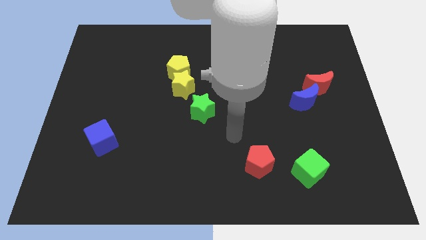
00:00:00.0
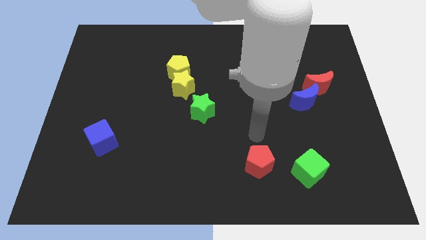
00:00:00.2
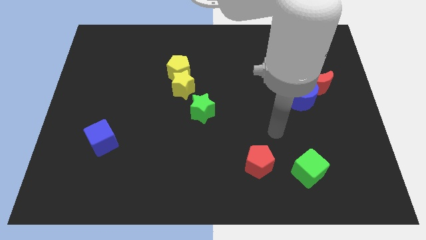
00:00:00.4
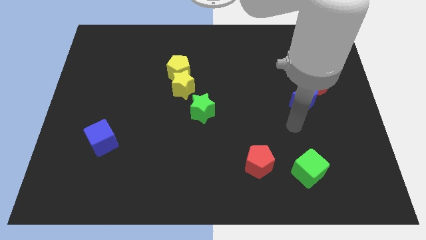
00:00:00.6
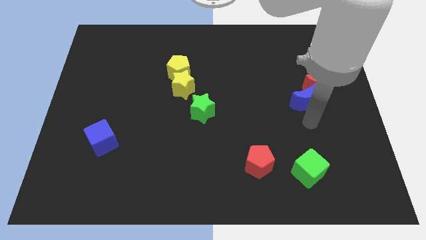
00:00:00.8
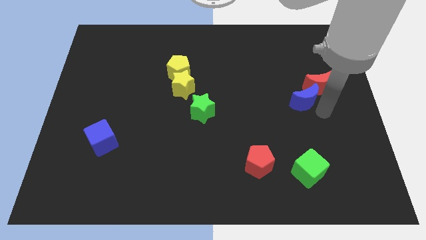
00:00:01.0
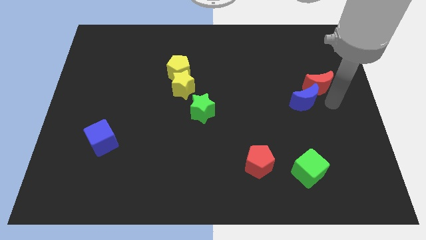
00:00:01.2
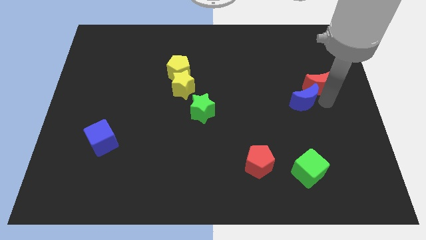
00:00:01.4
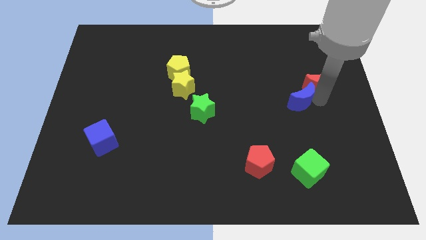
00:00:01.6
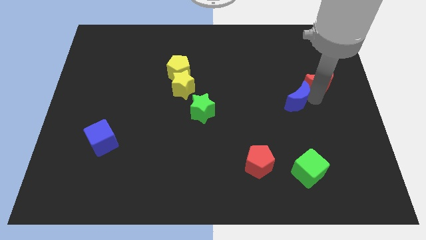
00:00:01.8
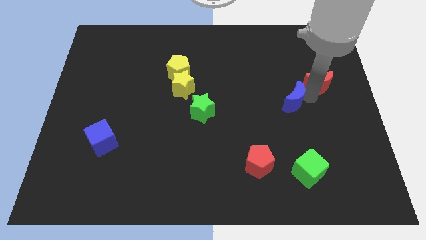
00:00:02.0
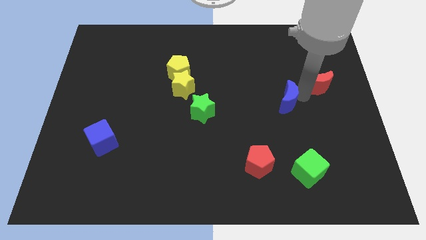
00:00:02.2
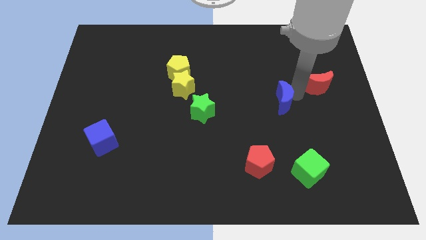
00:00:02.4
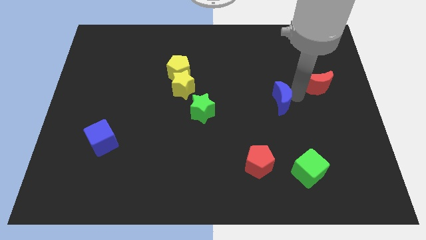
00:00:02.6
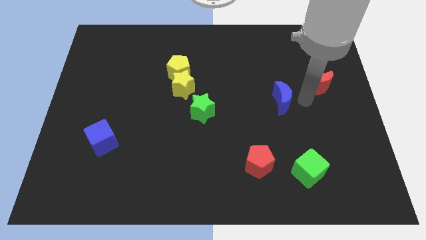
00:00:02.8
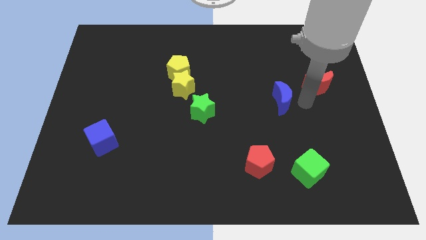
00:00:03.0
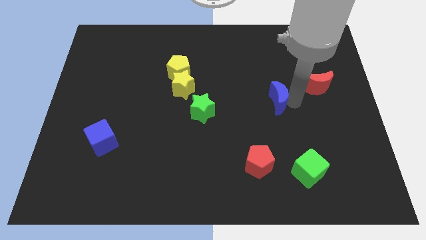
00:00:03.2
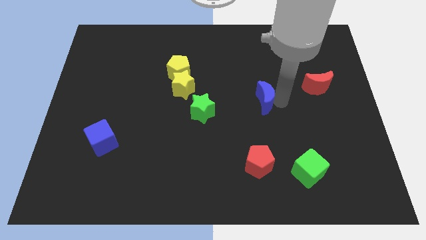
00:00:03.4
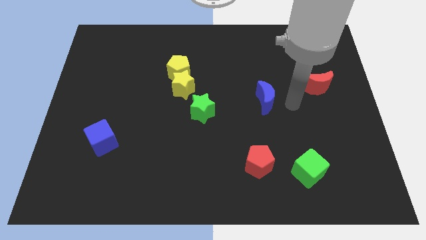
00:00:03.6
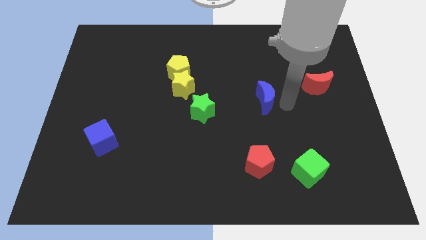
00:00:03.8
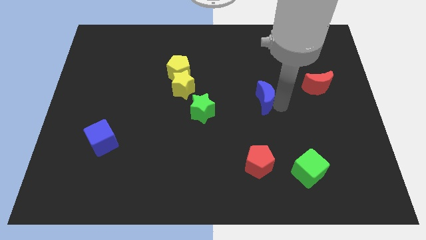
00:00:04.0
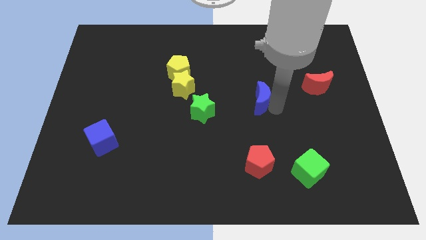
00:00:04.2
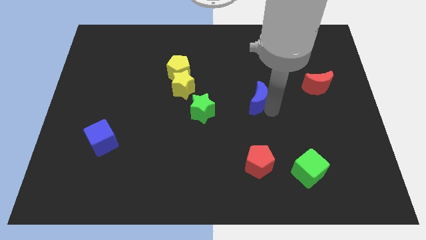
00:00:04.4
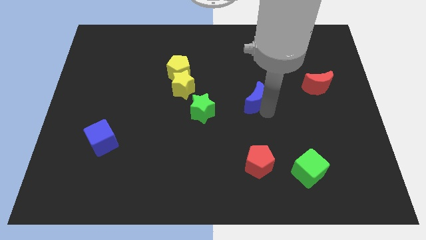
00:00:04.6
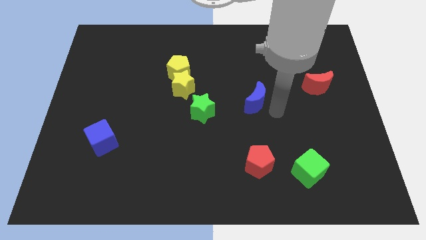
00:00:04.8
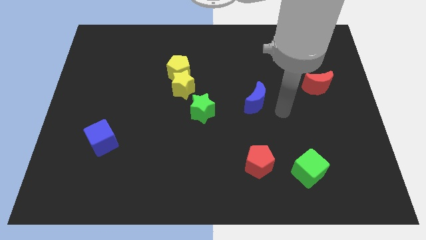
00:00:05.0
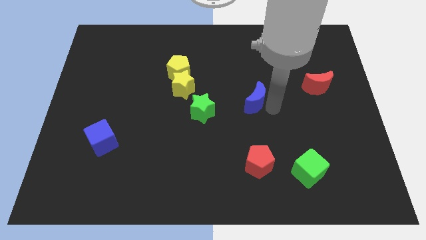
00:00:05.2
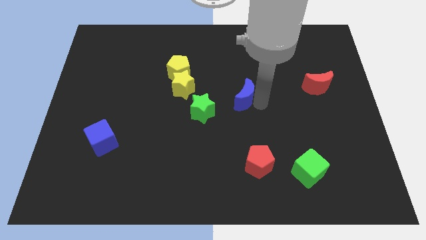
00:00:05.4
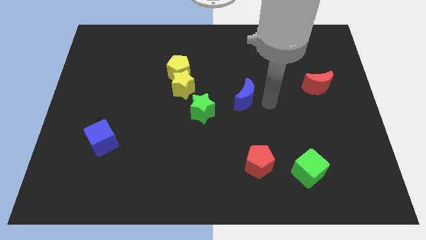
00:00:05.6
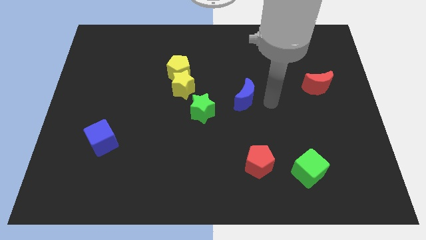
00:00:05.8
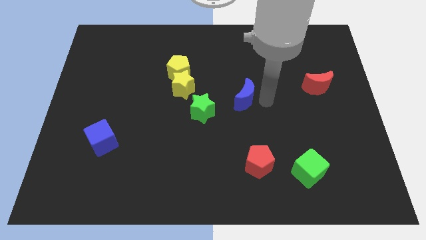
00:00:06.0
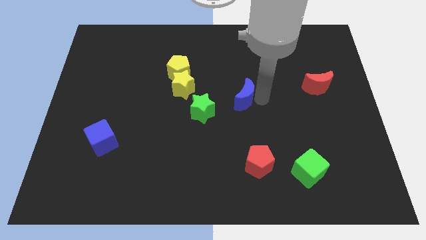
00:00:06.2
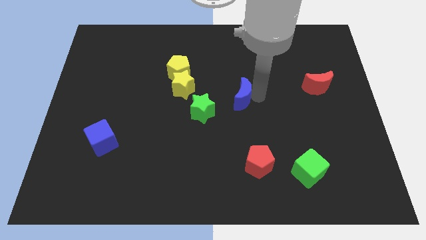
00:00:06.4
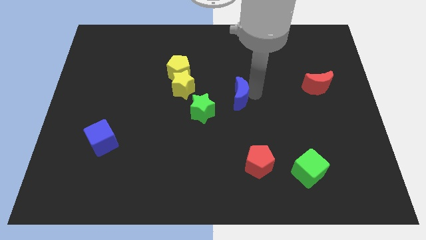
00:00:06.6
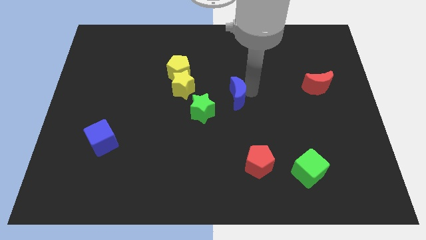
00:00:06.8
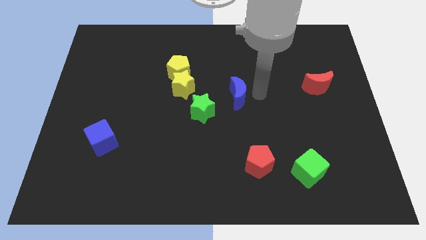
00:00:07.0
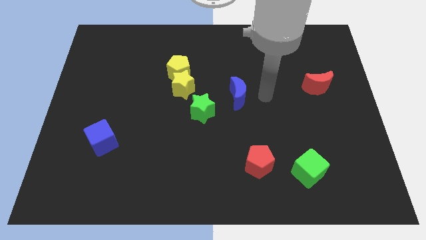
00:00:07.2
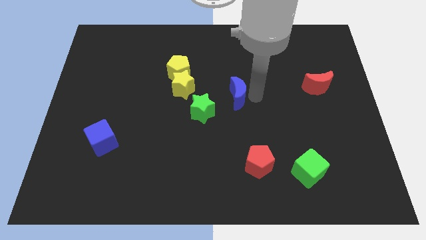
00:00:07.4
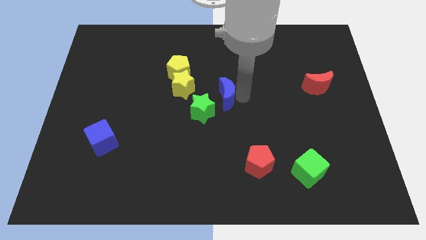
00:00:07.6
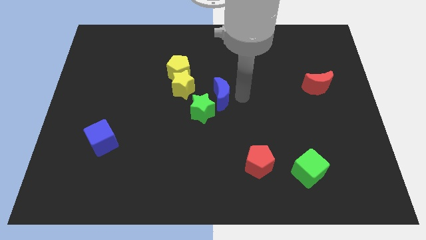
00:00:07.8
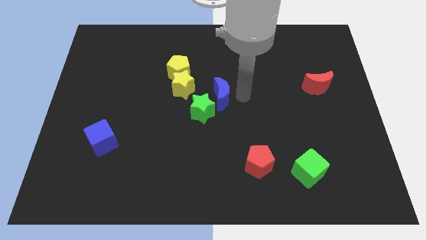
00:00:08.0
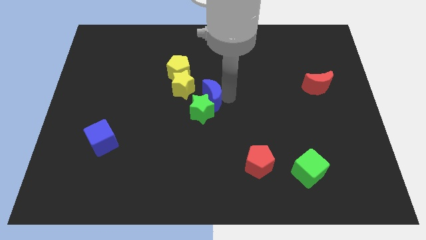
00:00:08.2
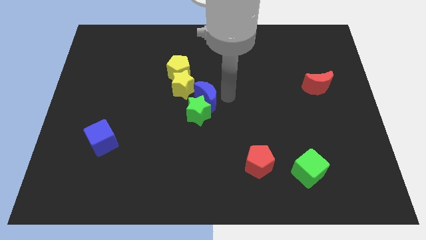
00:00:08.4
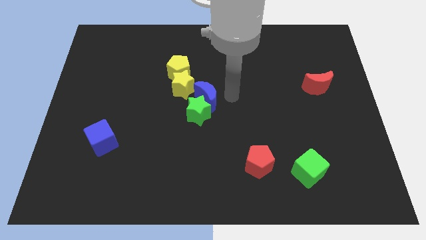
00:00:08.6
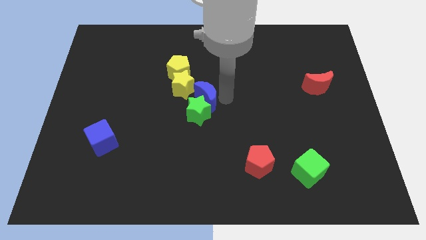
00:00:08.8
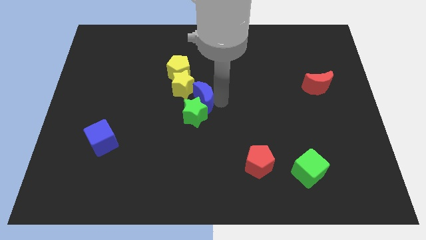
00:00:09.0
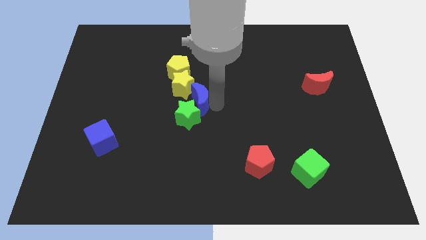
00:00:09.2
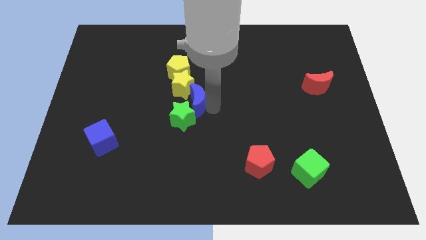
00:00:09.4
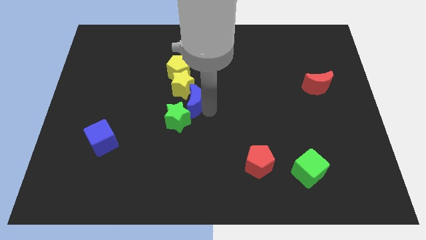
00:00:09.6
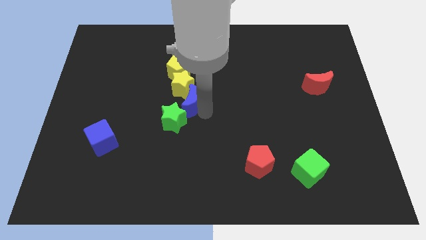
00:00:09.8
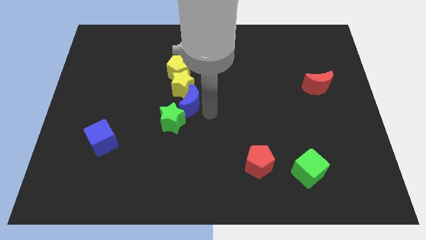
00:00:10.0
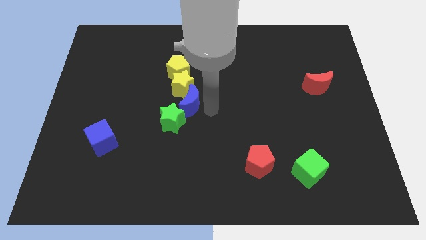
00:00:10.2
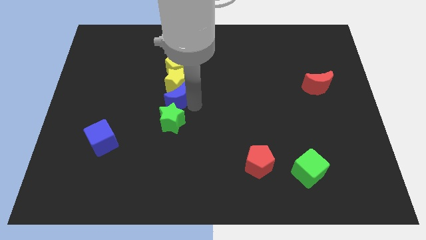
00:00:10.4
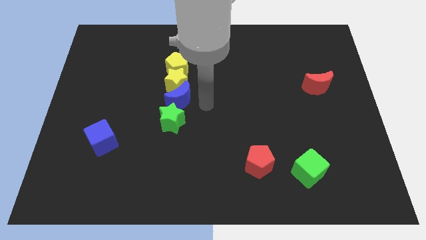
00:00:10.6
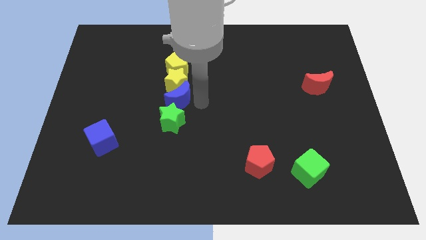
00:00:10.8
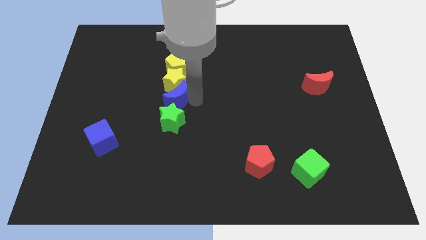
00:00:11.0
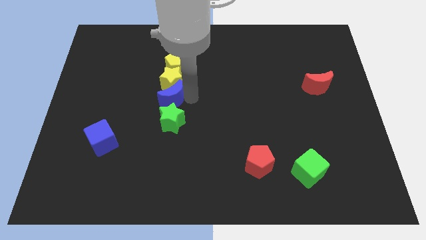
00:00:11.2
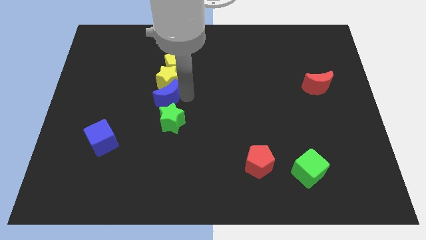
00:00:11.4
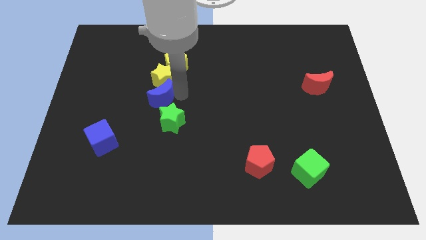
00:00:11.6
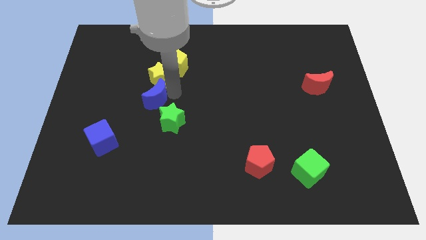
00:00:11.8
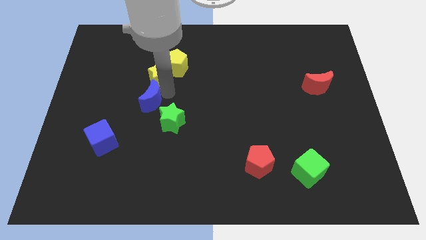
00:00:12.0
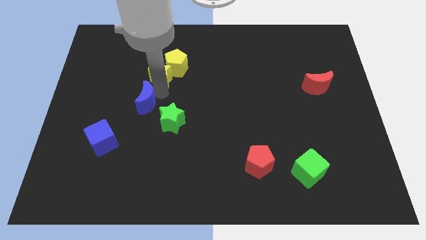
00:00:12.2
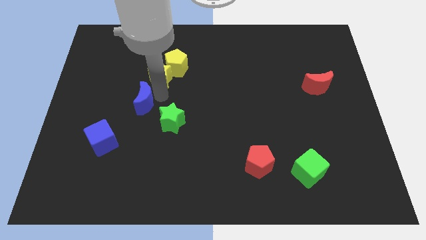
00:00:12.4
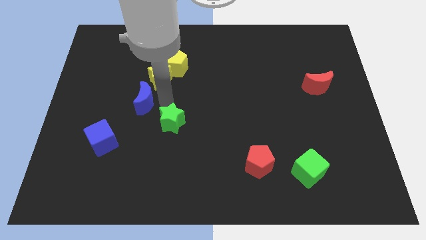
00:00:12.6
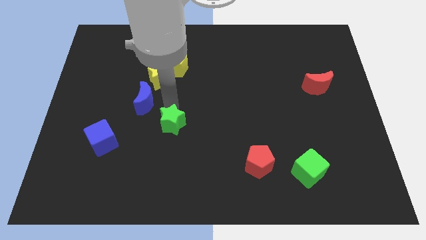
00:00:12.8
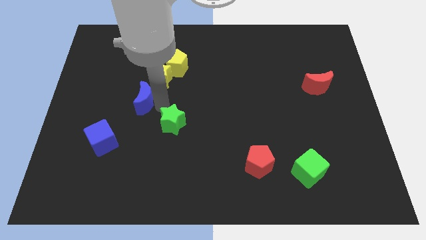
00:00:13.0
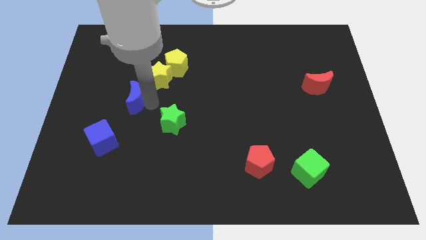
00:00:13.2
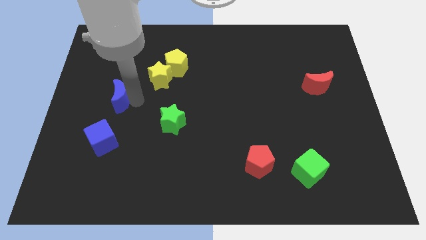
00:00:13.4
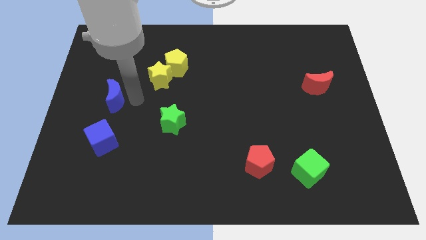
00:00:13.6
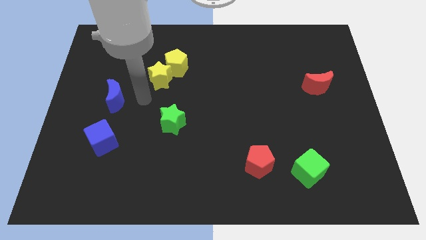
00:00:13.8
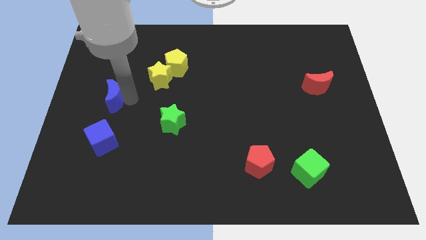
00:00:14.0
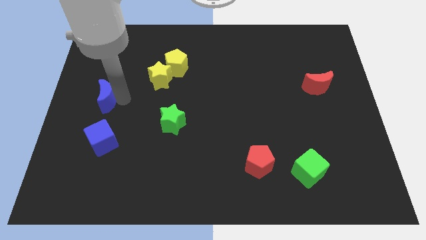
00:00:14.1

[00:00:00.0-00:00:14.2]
push the blue moon to the left side of the board
